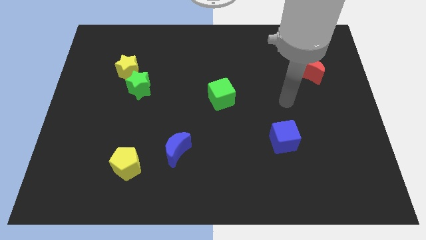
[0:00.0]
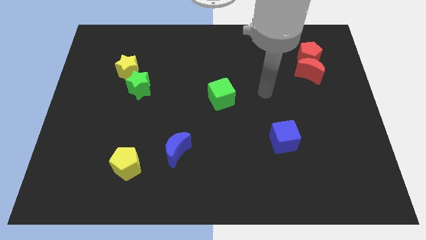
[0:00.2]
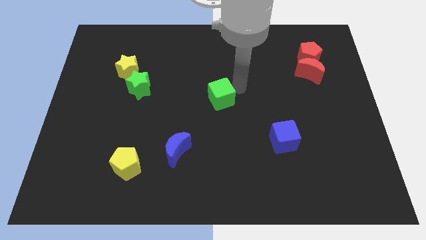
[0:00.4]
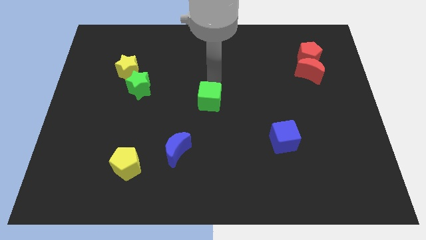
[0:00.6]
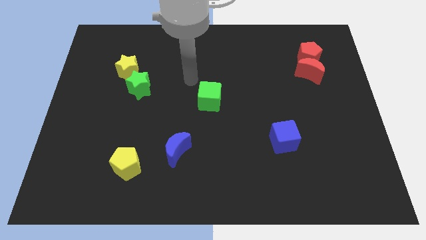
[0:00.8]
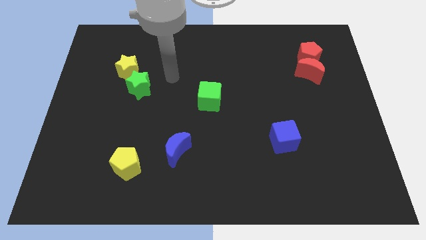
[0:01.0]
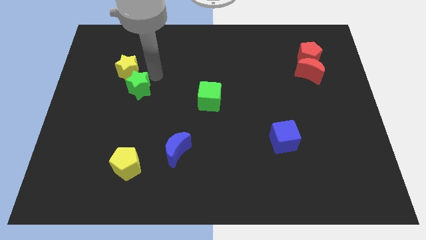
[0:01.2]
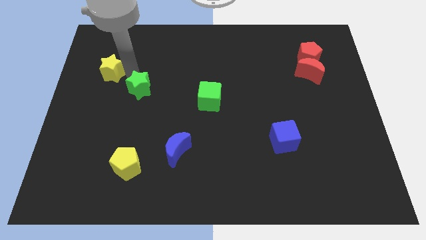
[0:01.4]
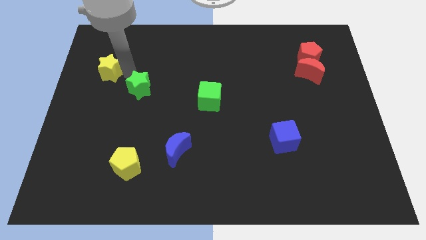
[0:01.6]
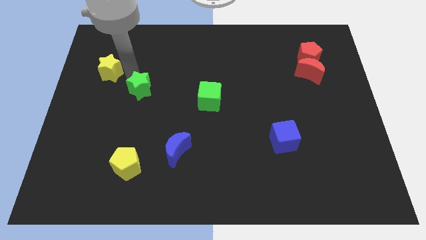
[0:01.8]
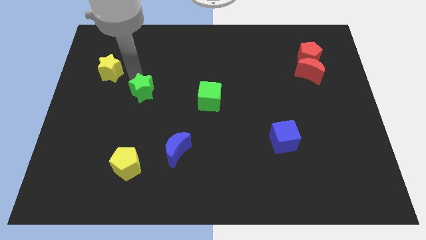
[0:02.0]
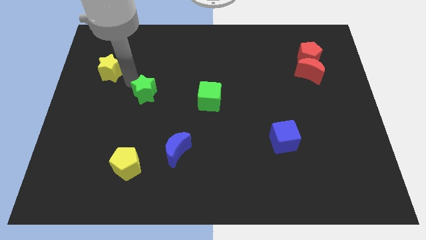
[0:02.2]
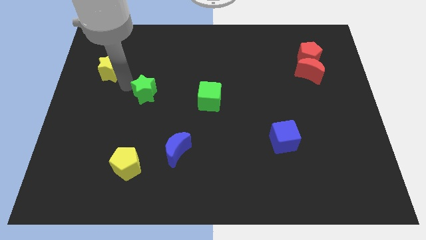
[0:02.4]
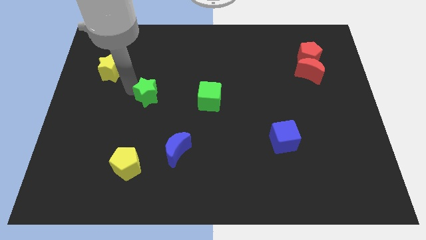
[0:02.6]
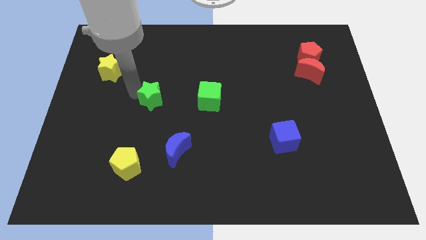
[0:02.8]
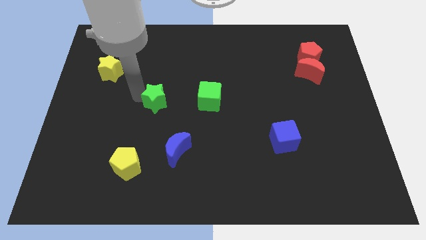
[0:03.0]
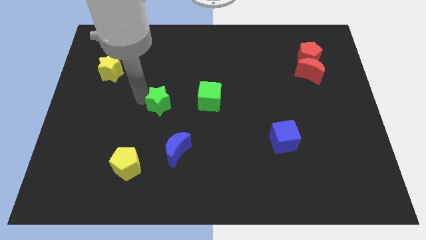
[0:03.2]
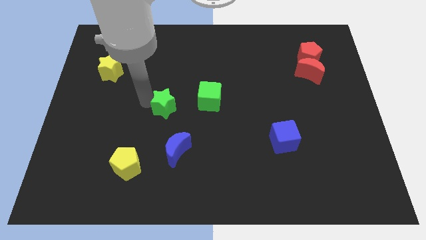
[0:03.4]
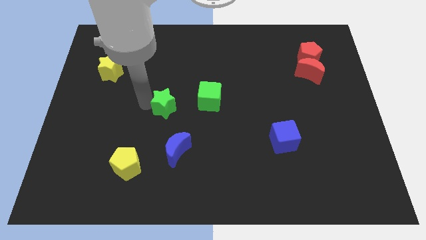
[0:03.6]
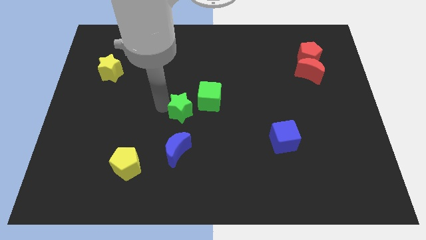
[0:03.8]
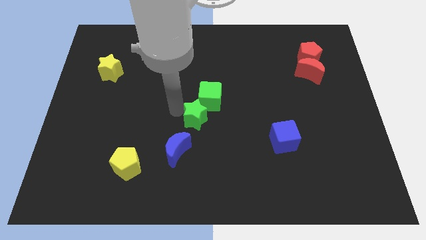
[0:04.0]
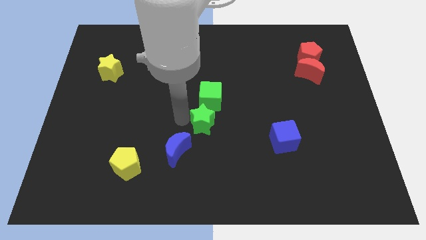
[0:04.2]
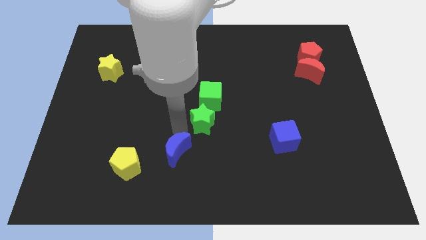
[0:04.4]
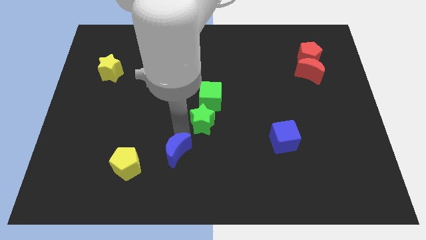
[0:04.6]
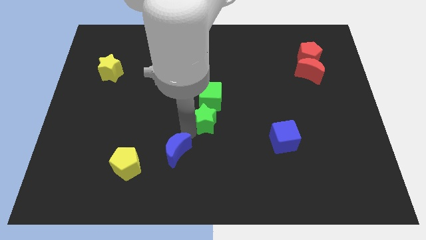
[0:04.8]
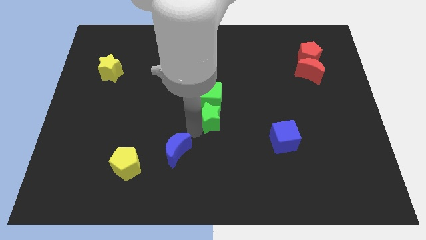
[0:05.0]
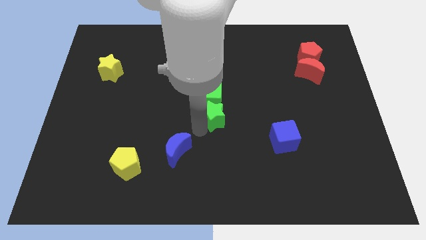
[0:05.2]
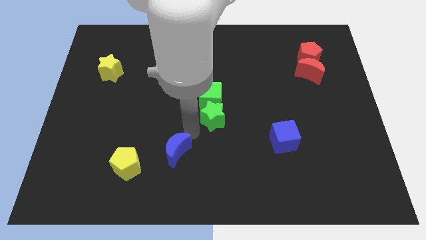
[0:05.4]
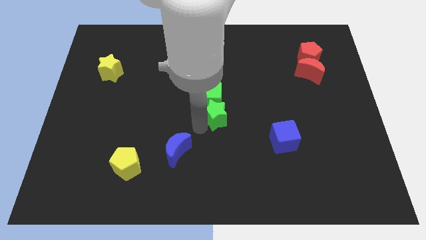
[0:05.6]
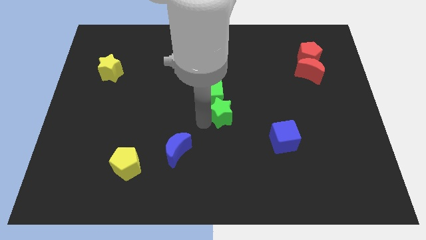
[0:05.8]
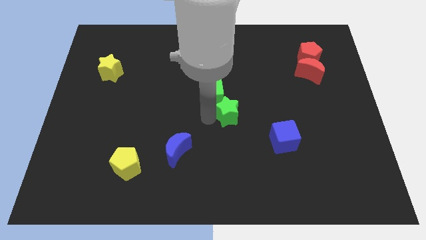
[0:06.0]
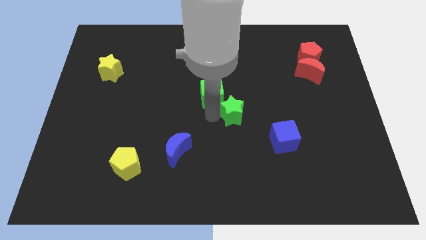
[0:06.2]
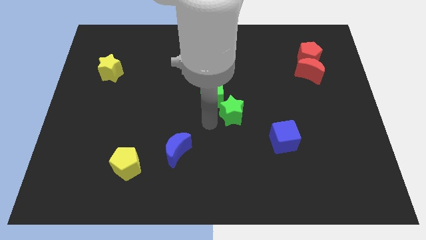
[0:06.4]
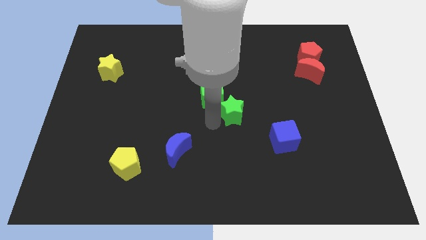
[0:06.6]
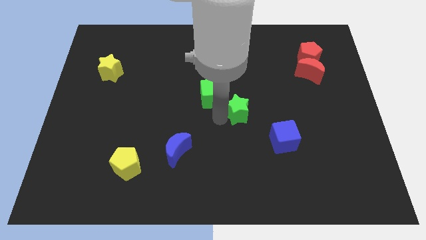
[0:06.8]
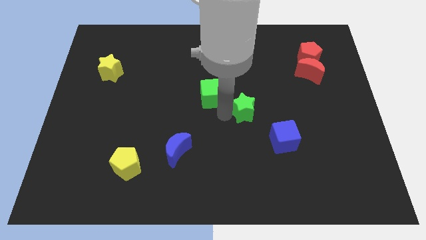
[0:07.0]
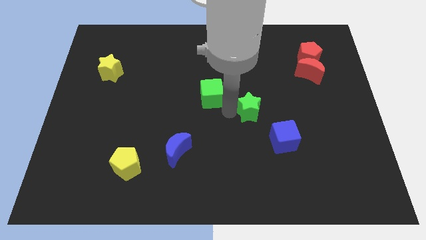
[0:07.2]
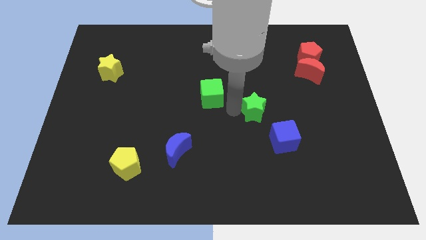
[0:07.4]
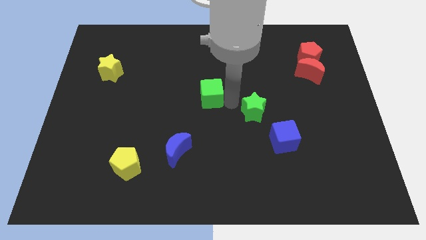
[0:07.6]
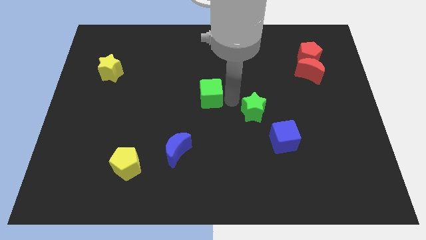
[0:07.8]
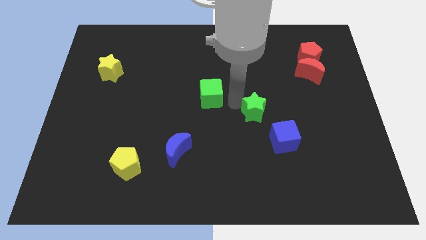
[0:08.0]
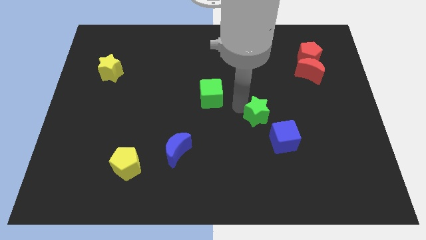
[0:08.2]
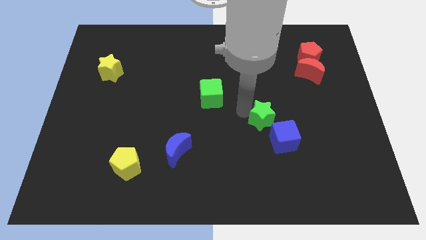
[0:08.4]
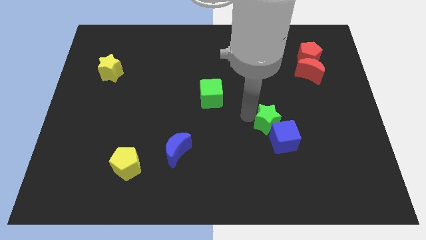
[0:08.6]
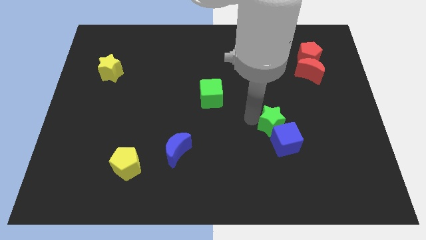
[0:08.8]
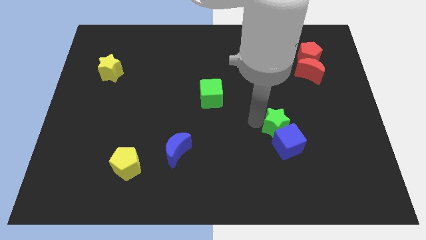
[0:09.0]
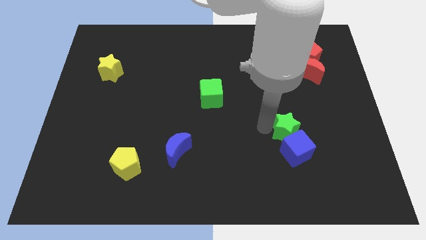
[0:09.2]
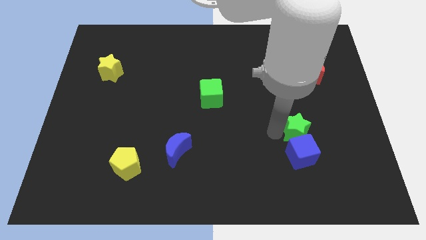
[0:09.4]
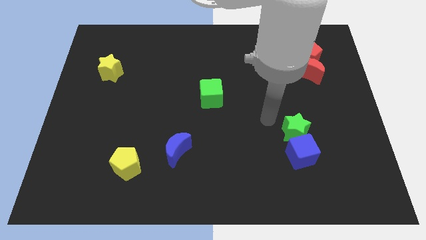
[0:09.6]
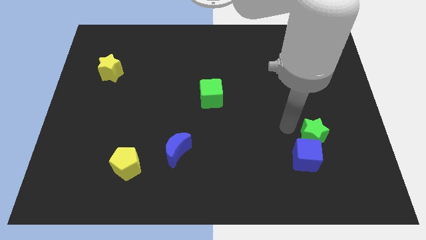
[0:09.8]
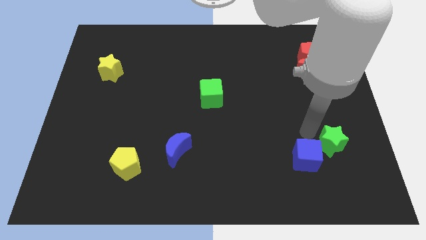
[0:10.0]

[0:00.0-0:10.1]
put the green star just right of the blue cube

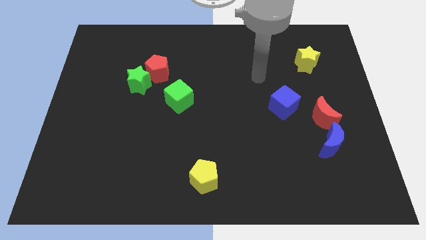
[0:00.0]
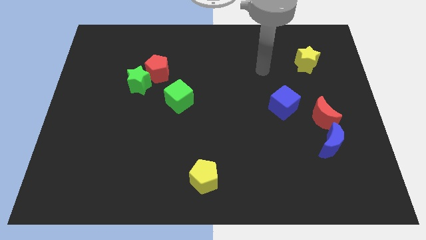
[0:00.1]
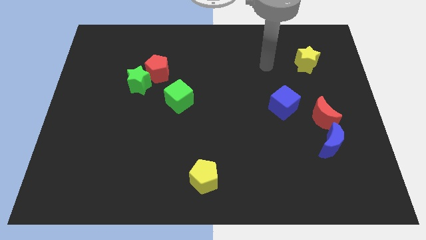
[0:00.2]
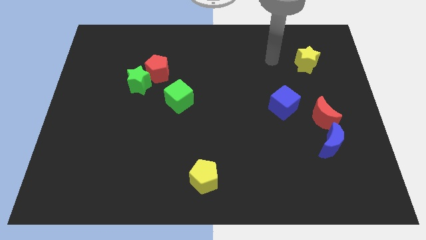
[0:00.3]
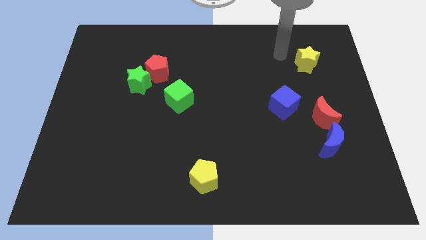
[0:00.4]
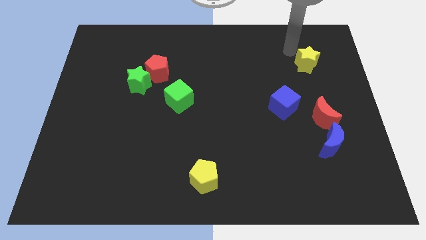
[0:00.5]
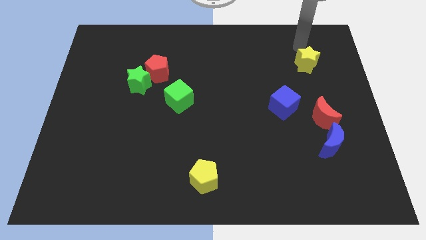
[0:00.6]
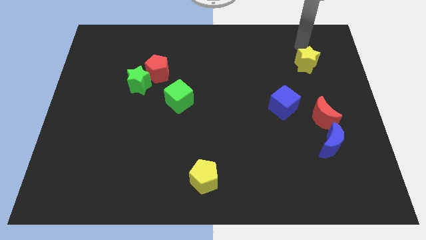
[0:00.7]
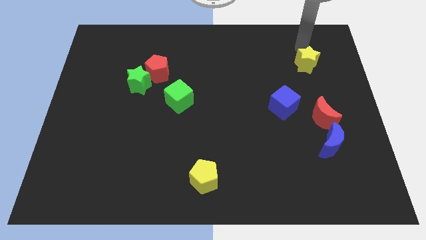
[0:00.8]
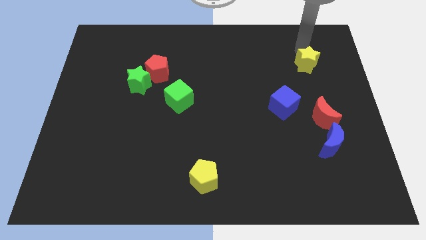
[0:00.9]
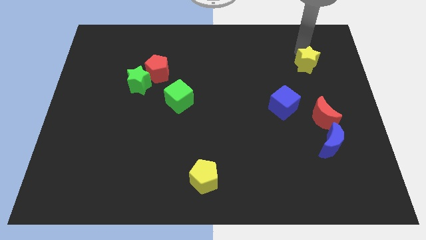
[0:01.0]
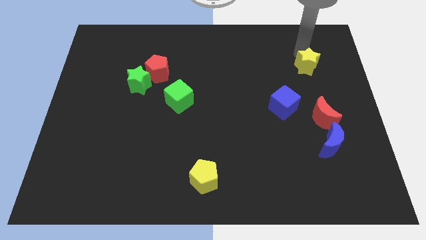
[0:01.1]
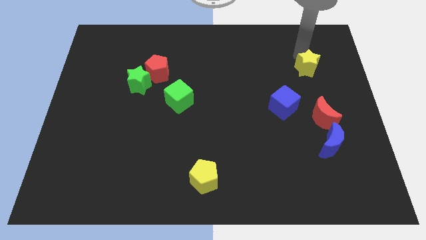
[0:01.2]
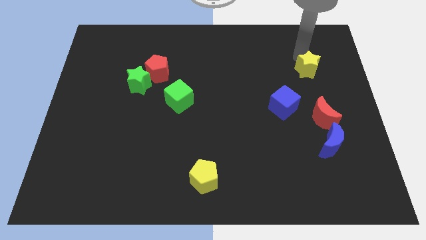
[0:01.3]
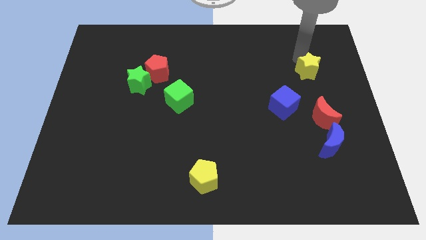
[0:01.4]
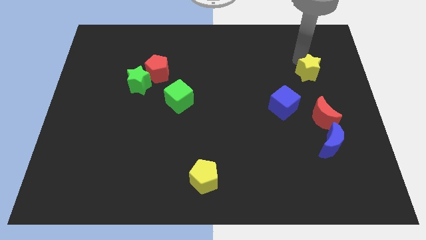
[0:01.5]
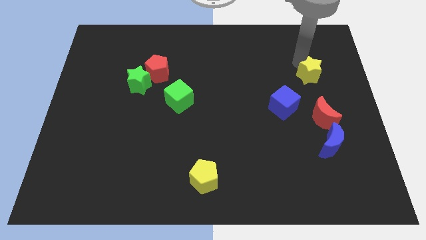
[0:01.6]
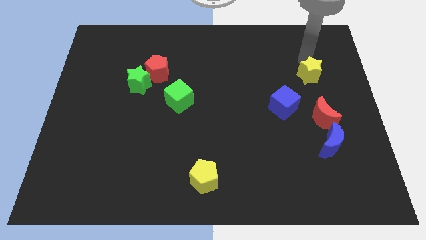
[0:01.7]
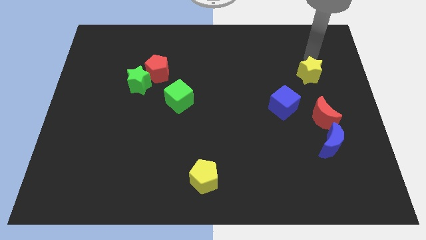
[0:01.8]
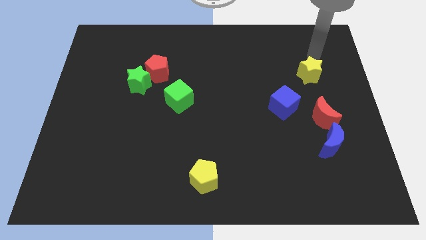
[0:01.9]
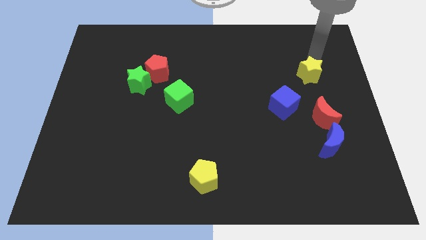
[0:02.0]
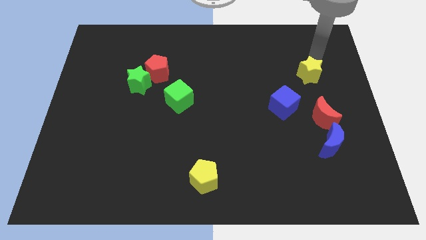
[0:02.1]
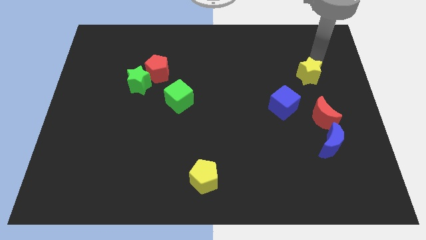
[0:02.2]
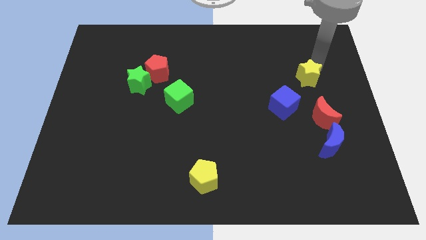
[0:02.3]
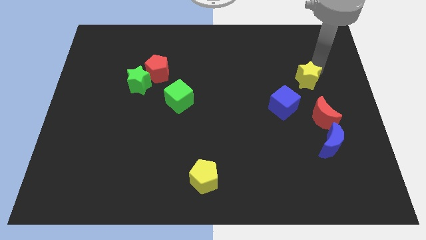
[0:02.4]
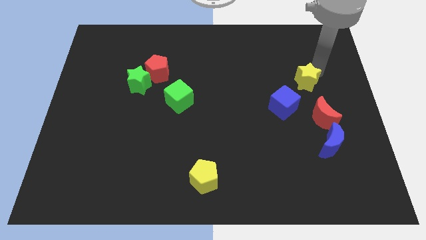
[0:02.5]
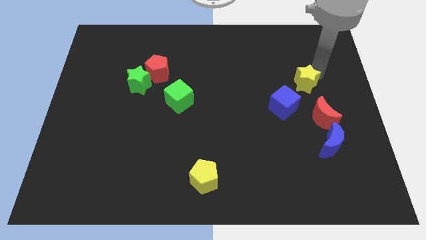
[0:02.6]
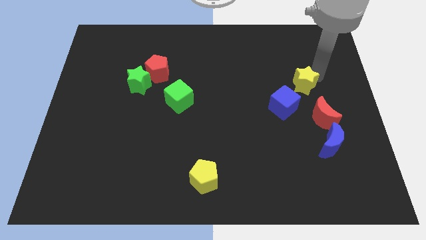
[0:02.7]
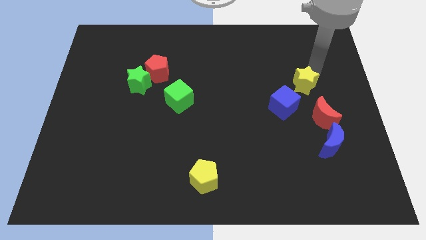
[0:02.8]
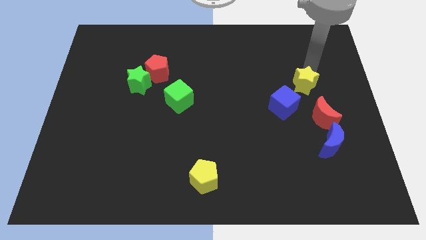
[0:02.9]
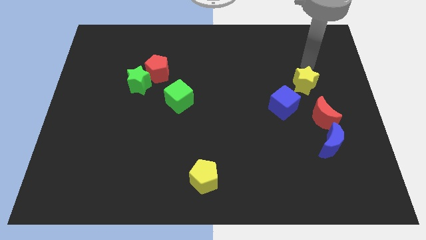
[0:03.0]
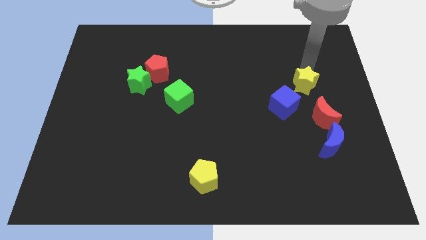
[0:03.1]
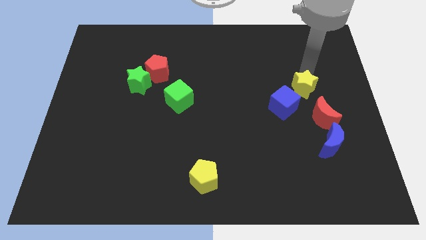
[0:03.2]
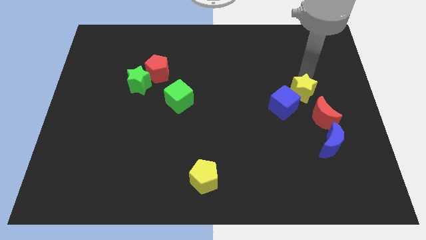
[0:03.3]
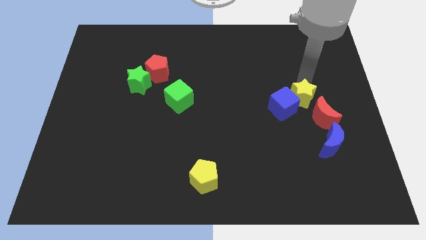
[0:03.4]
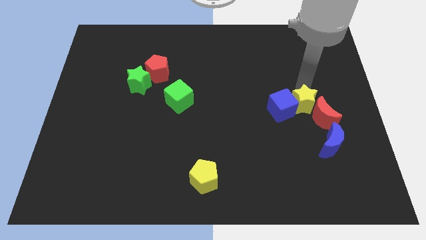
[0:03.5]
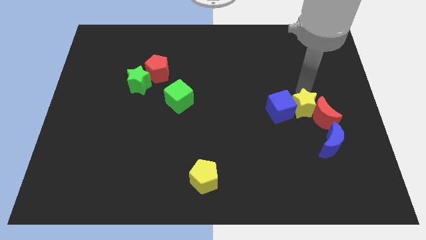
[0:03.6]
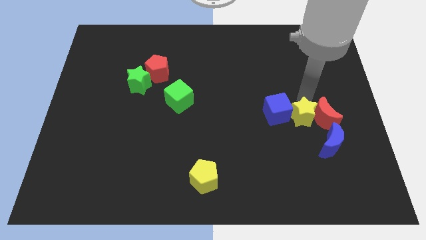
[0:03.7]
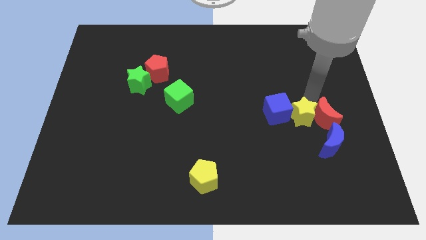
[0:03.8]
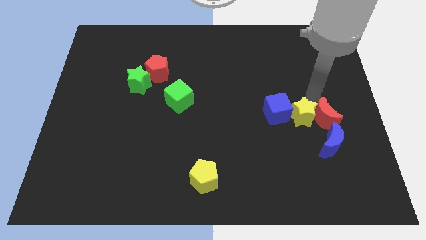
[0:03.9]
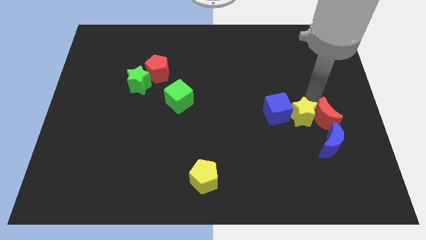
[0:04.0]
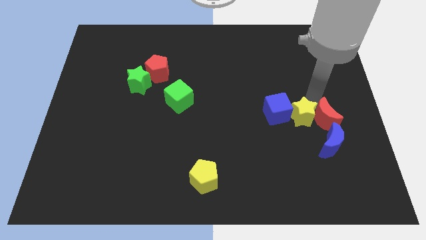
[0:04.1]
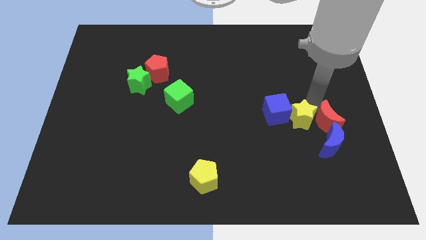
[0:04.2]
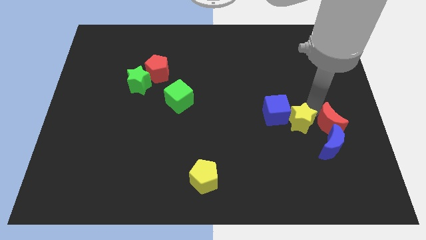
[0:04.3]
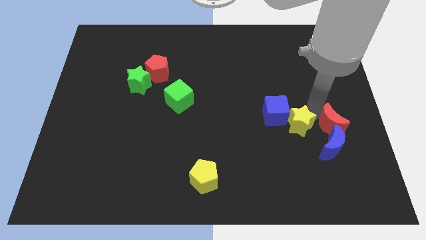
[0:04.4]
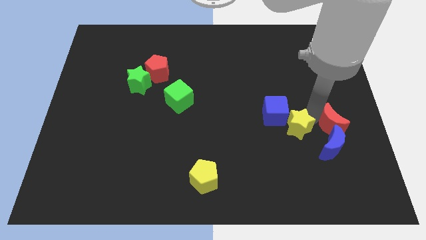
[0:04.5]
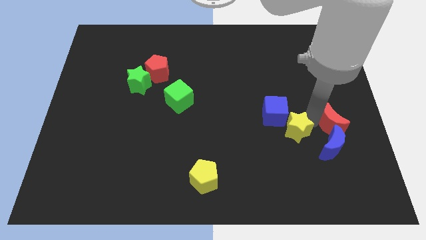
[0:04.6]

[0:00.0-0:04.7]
put the yellow star below the blue cube
